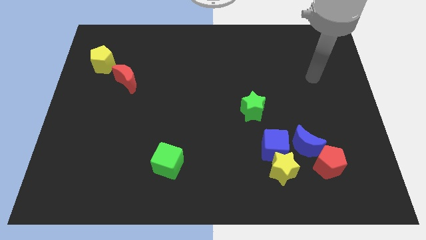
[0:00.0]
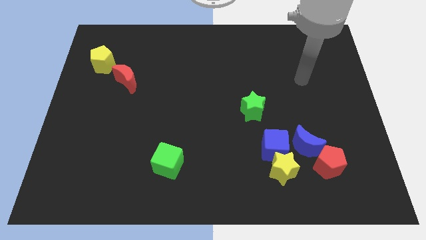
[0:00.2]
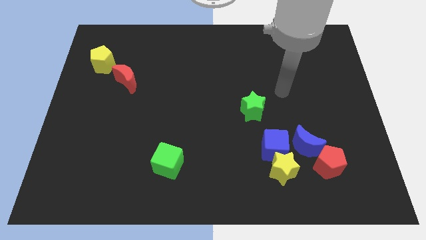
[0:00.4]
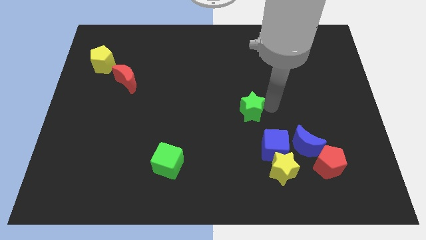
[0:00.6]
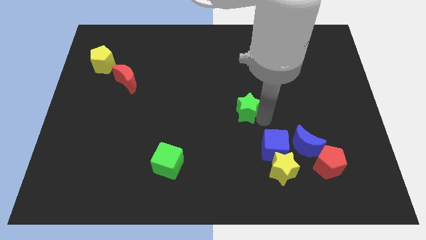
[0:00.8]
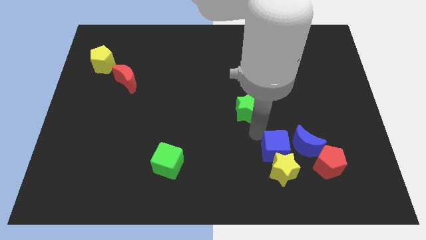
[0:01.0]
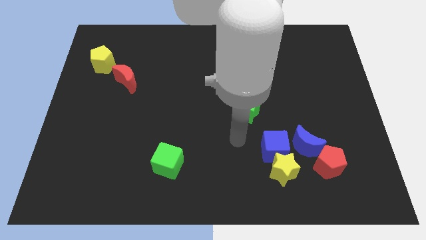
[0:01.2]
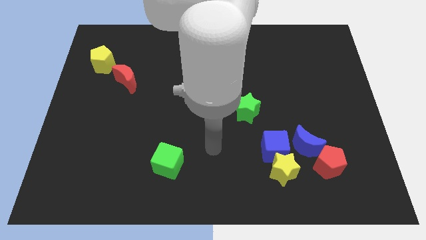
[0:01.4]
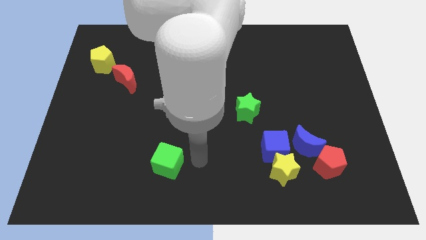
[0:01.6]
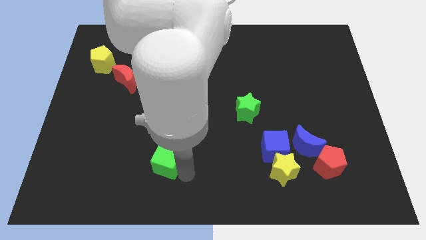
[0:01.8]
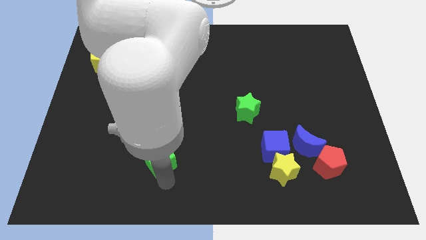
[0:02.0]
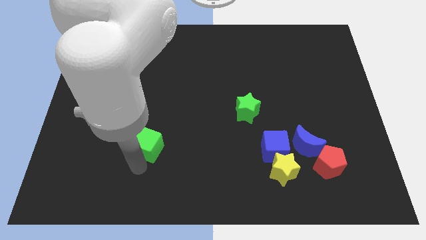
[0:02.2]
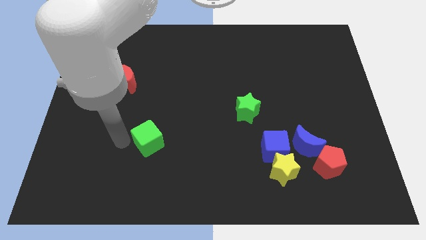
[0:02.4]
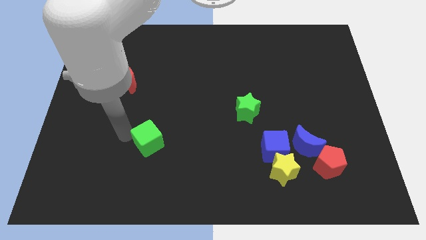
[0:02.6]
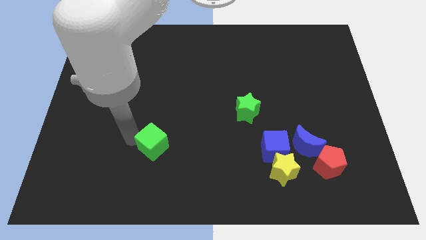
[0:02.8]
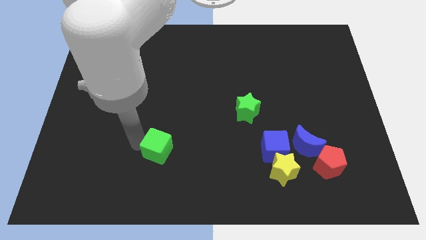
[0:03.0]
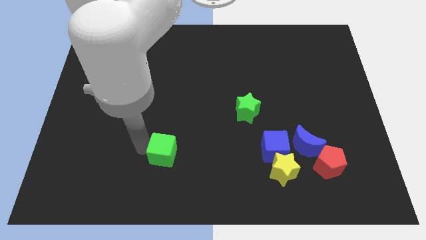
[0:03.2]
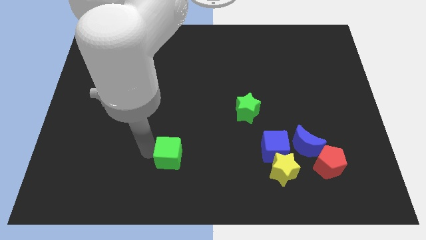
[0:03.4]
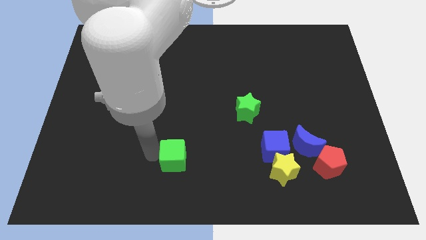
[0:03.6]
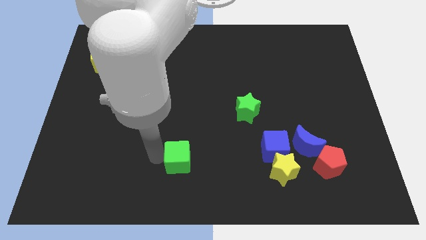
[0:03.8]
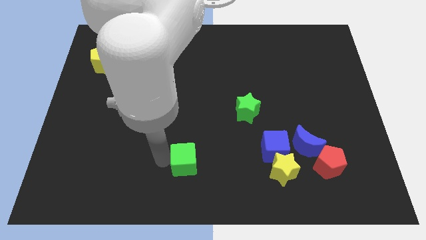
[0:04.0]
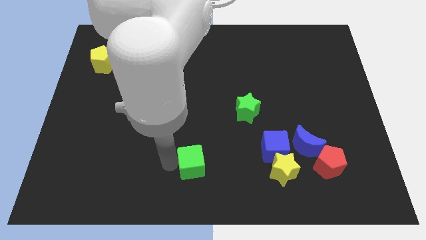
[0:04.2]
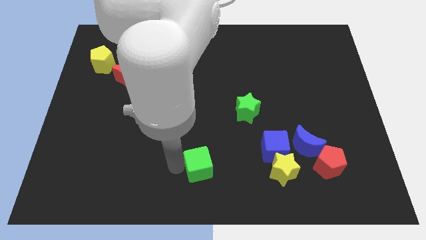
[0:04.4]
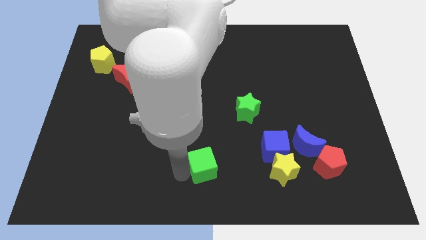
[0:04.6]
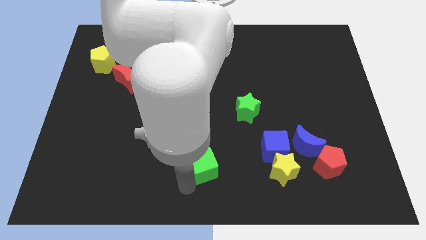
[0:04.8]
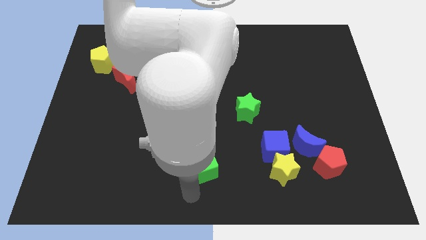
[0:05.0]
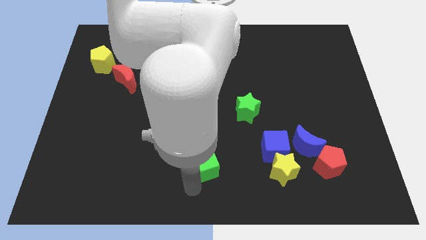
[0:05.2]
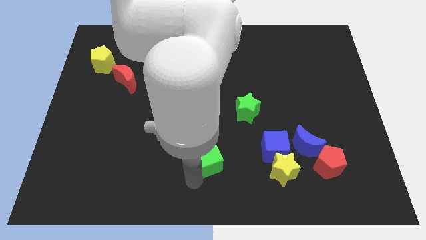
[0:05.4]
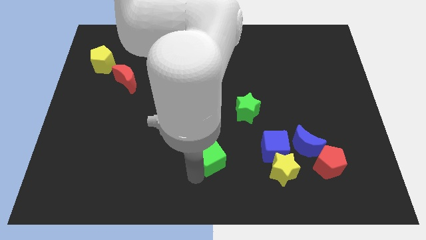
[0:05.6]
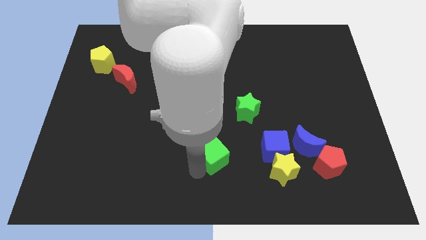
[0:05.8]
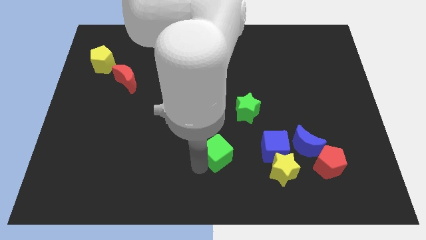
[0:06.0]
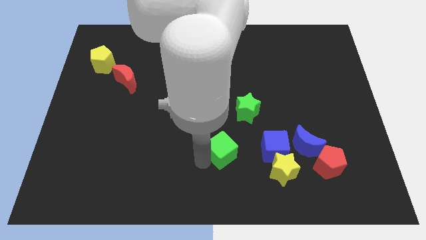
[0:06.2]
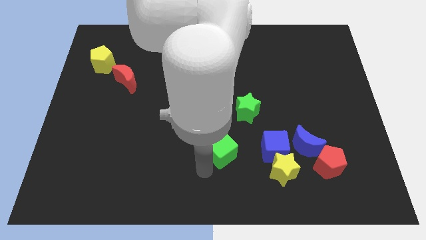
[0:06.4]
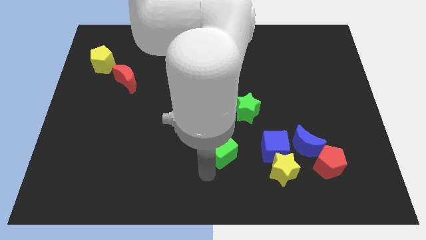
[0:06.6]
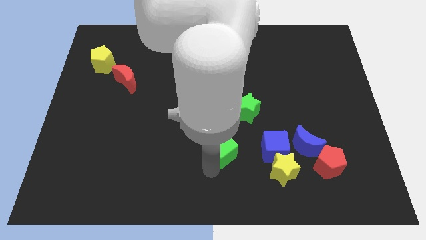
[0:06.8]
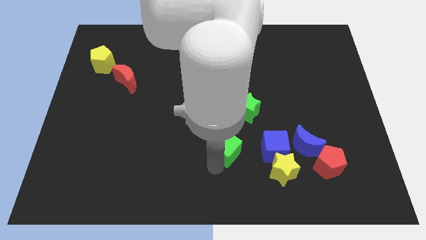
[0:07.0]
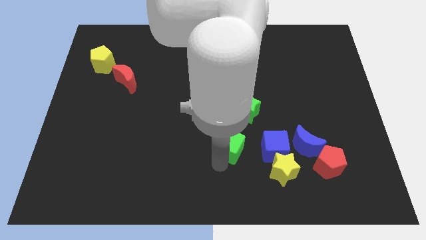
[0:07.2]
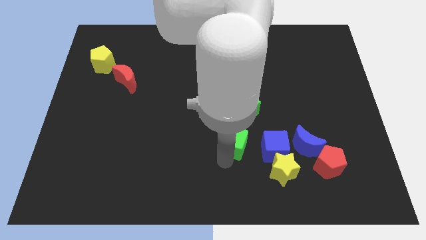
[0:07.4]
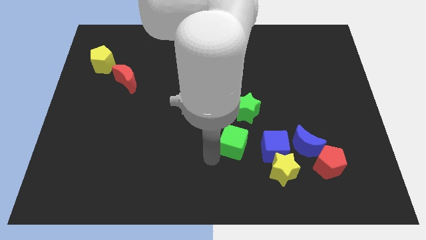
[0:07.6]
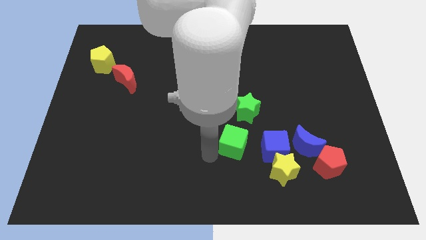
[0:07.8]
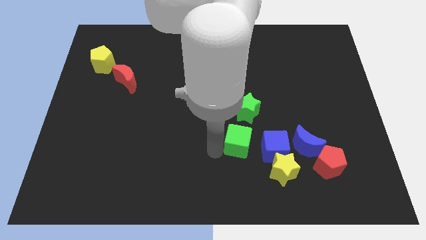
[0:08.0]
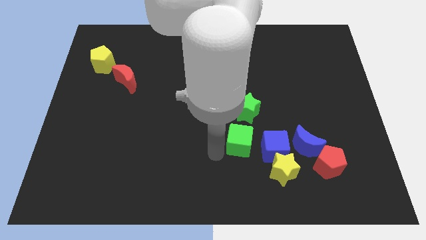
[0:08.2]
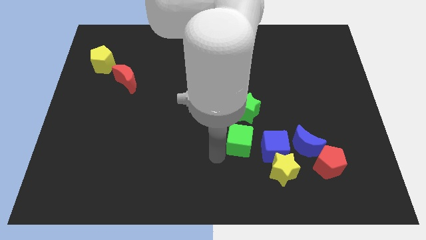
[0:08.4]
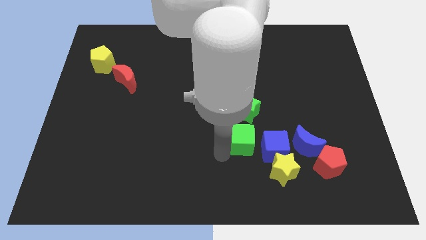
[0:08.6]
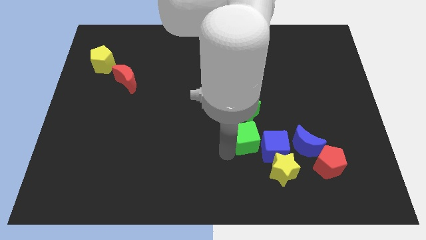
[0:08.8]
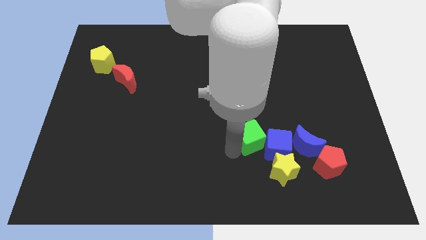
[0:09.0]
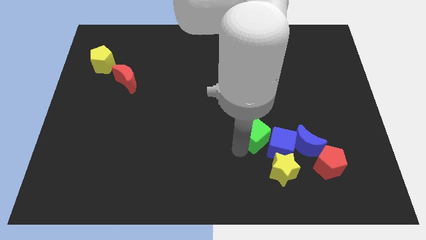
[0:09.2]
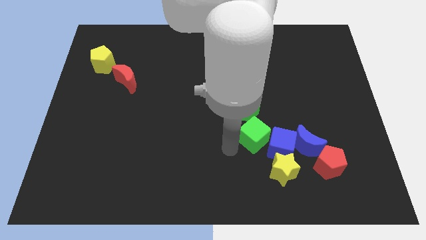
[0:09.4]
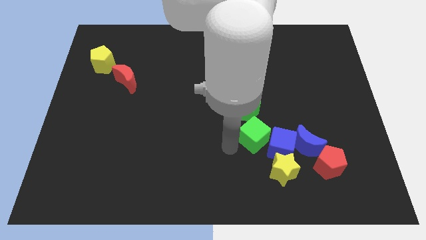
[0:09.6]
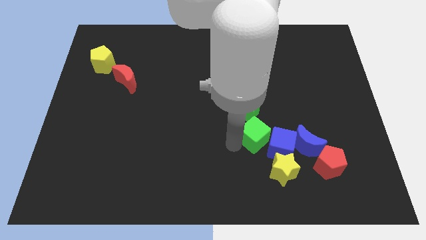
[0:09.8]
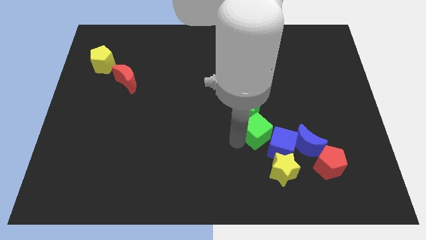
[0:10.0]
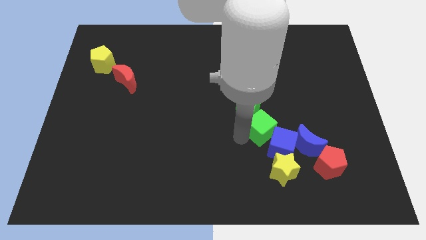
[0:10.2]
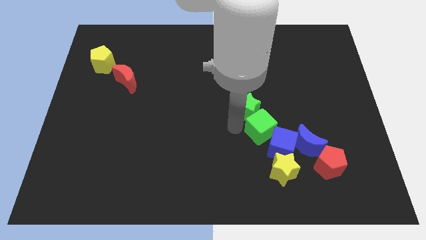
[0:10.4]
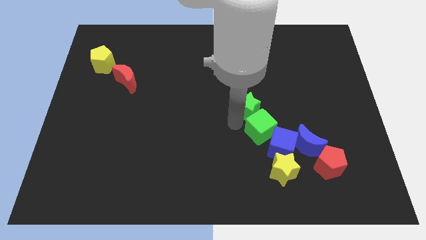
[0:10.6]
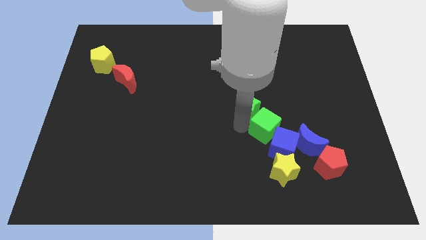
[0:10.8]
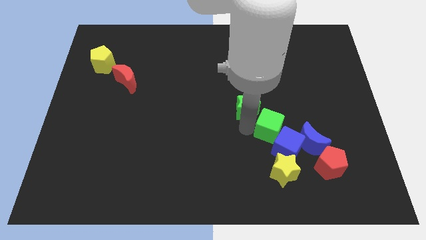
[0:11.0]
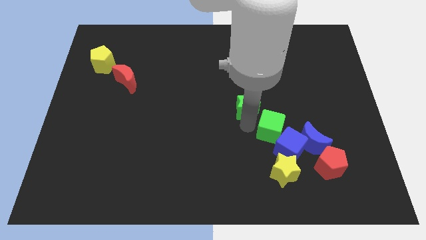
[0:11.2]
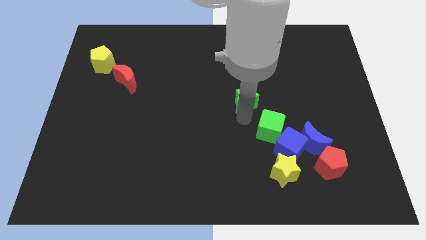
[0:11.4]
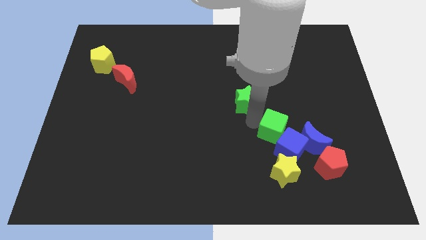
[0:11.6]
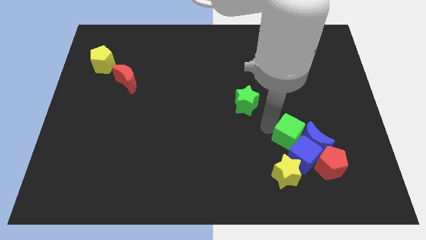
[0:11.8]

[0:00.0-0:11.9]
move the green cube to the blue moon

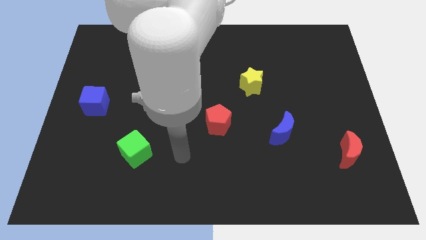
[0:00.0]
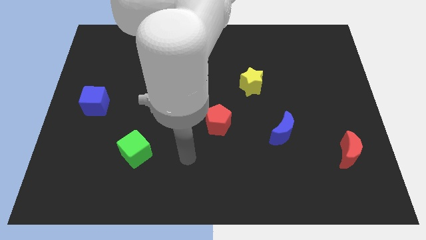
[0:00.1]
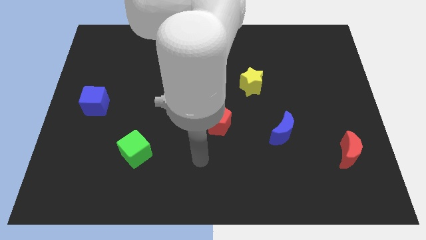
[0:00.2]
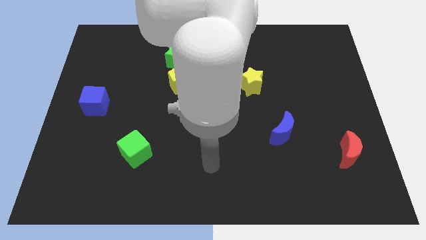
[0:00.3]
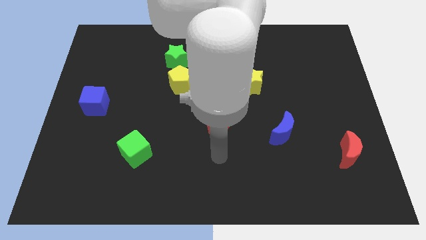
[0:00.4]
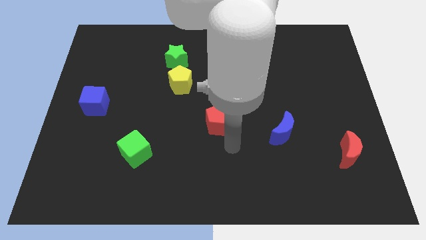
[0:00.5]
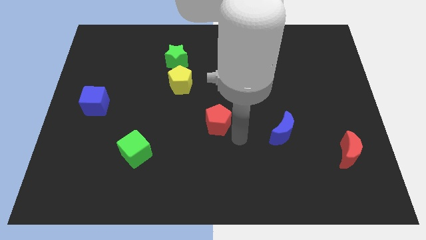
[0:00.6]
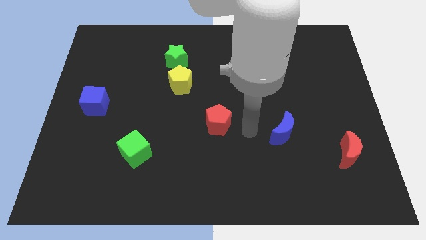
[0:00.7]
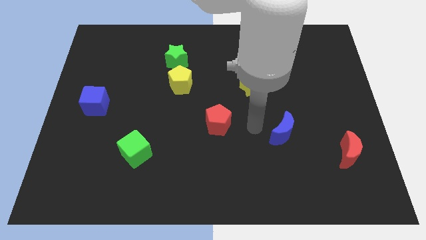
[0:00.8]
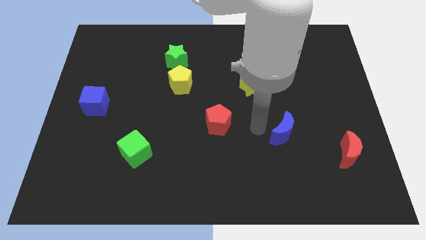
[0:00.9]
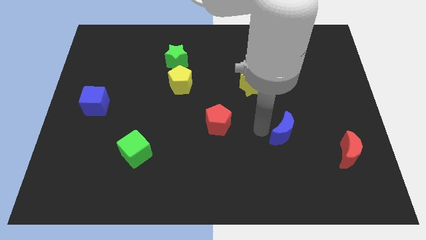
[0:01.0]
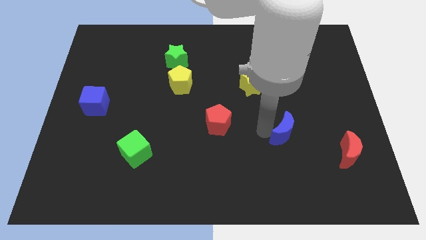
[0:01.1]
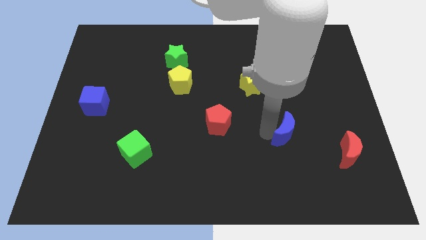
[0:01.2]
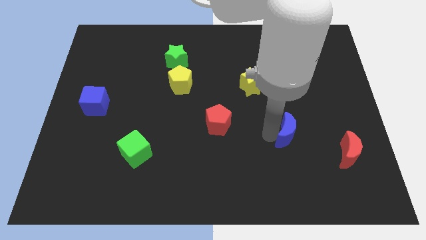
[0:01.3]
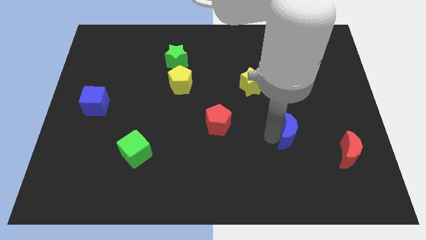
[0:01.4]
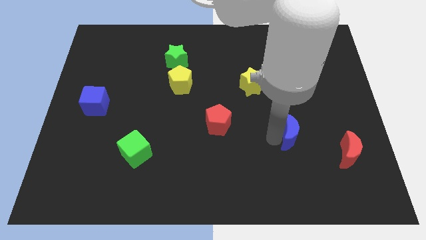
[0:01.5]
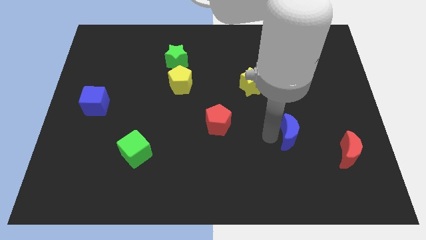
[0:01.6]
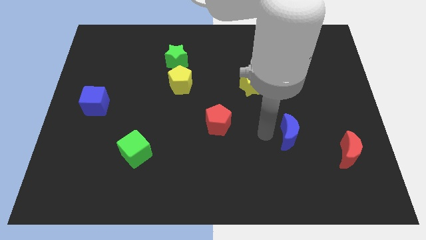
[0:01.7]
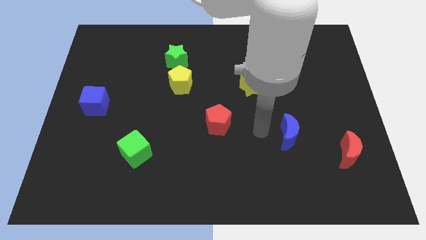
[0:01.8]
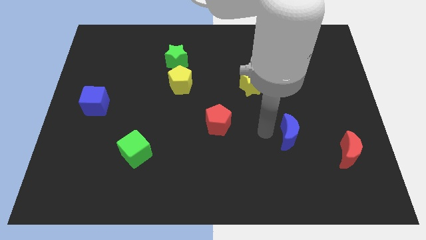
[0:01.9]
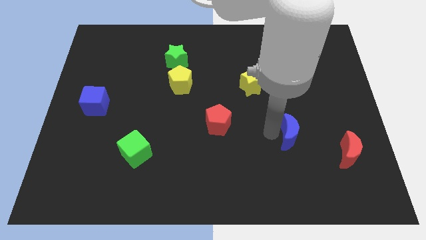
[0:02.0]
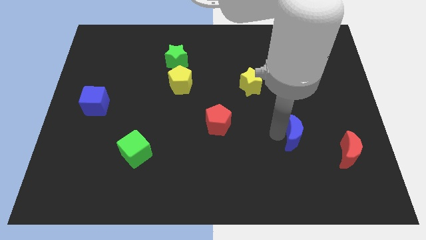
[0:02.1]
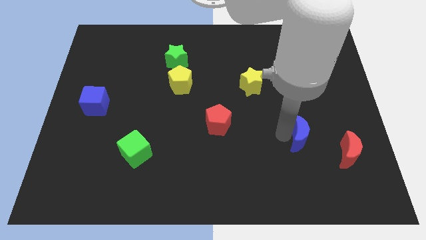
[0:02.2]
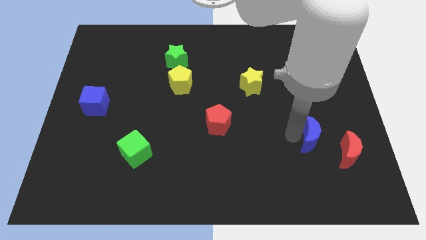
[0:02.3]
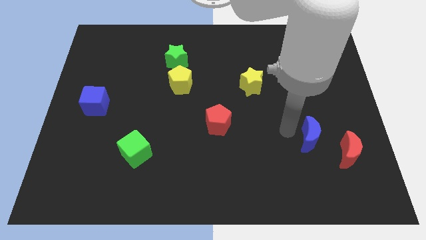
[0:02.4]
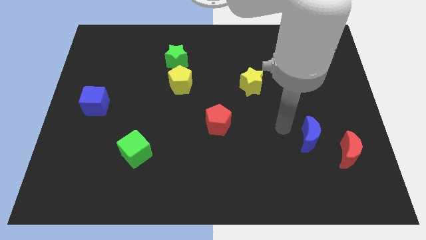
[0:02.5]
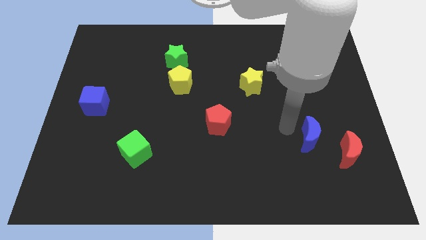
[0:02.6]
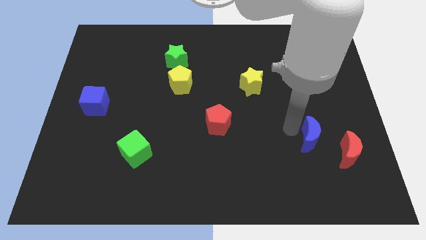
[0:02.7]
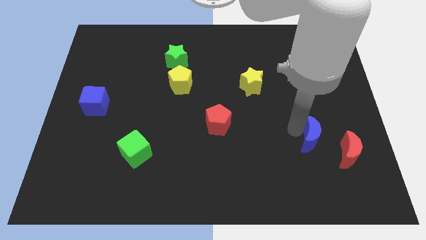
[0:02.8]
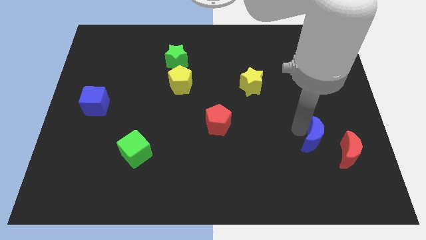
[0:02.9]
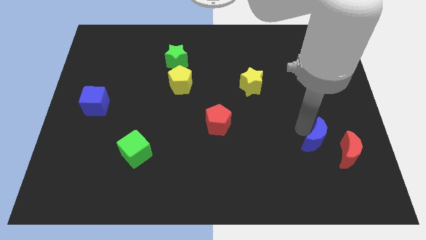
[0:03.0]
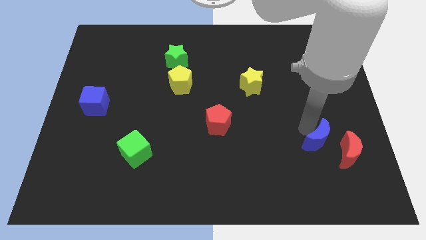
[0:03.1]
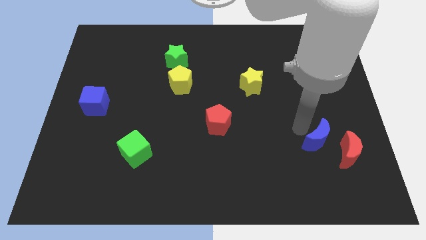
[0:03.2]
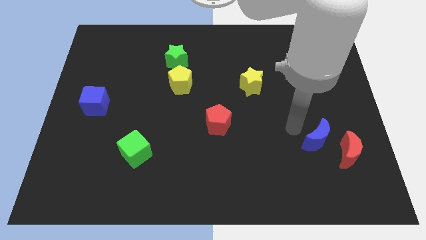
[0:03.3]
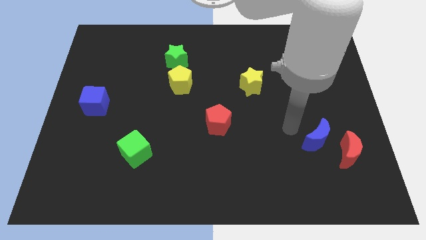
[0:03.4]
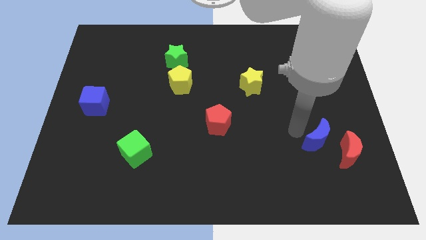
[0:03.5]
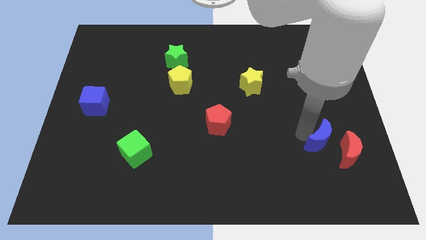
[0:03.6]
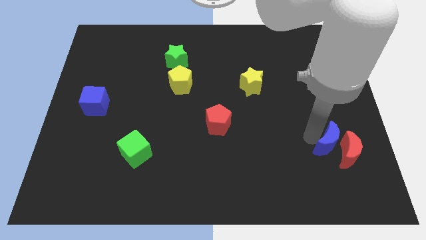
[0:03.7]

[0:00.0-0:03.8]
push the blue moon close to the red moon
